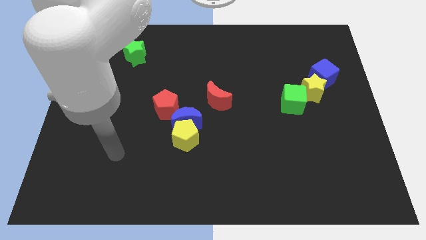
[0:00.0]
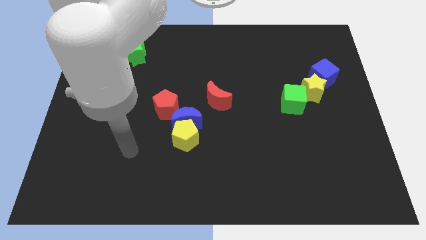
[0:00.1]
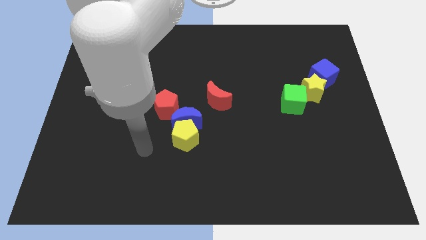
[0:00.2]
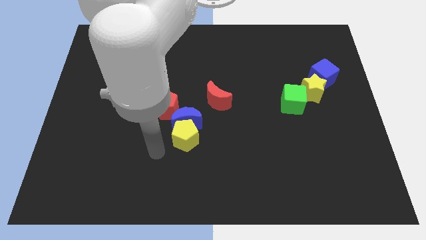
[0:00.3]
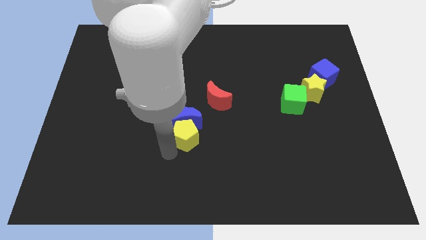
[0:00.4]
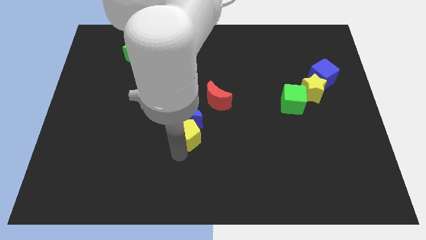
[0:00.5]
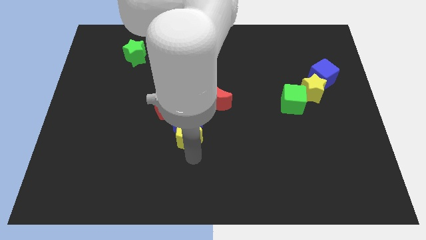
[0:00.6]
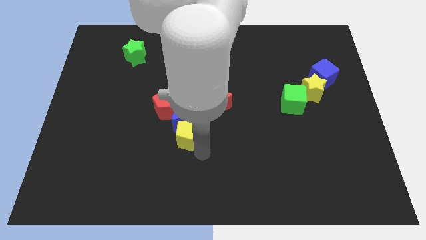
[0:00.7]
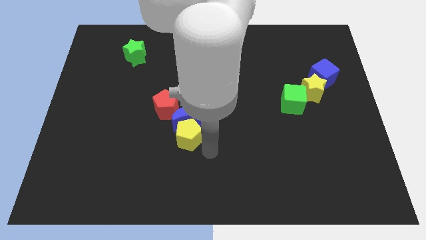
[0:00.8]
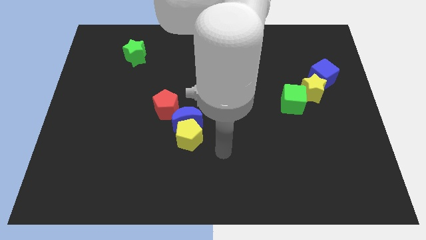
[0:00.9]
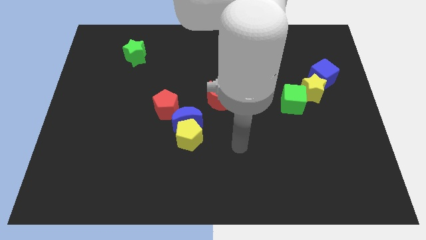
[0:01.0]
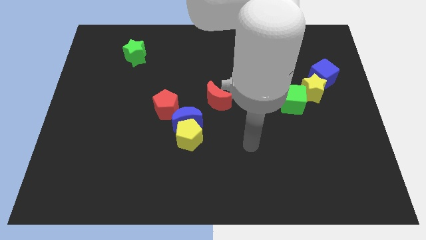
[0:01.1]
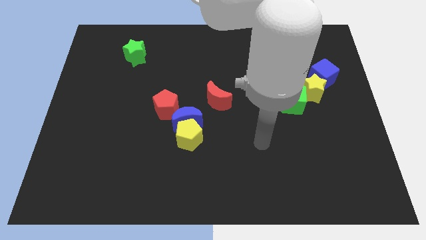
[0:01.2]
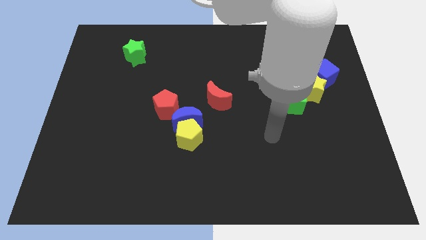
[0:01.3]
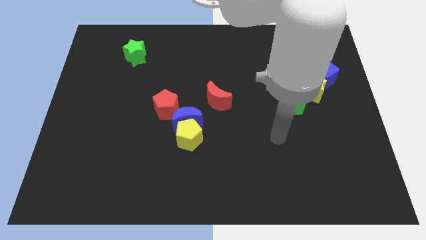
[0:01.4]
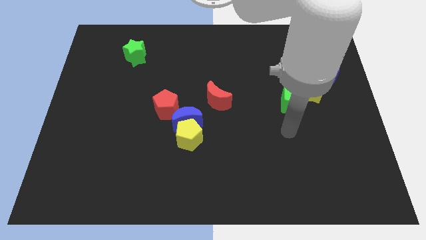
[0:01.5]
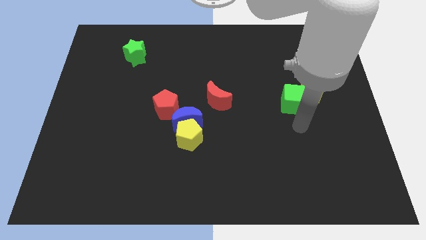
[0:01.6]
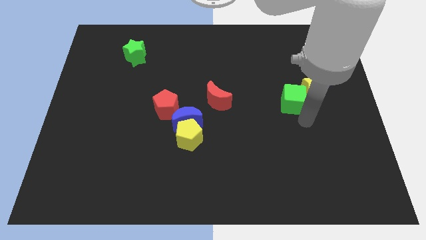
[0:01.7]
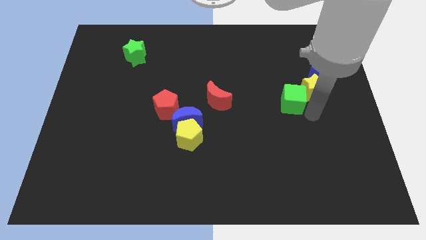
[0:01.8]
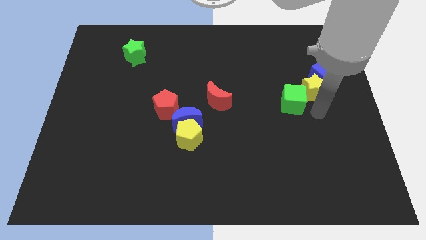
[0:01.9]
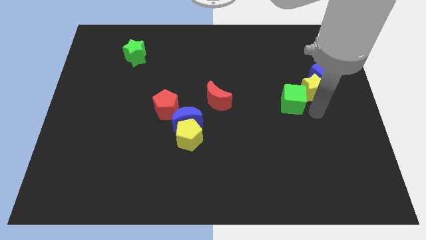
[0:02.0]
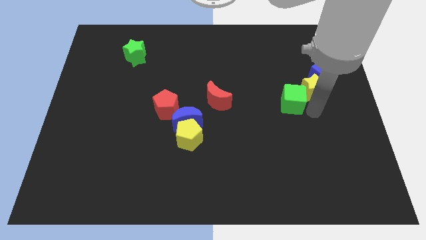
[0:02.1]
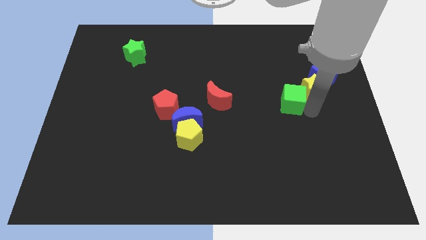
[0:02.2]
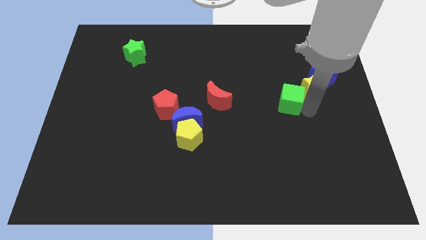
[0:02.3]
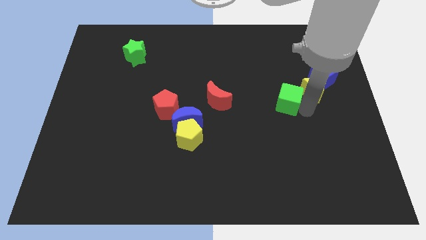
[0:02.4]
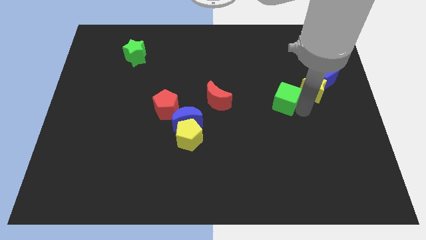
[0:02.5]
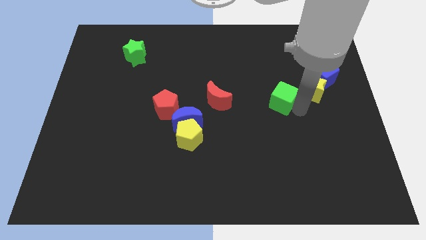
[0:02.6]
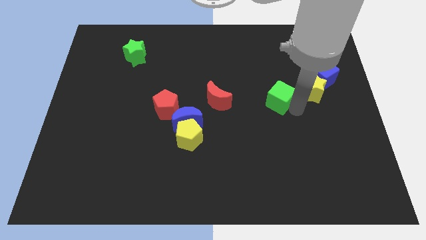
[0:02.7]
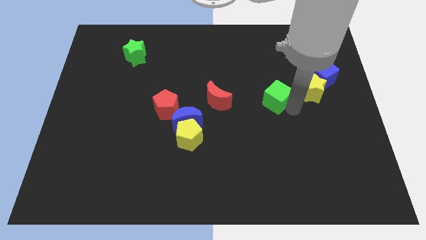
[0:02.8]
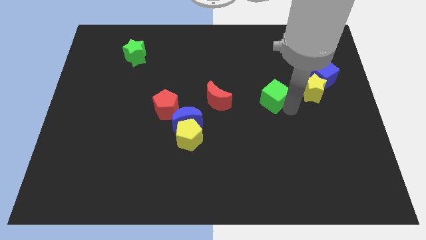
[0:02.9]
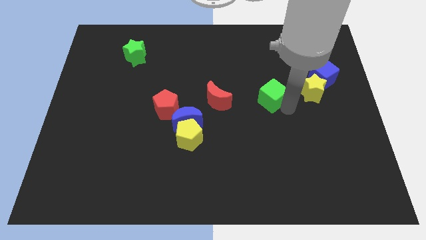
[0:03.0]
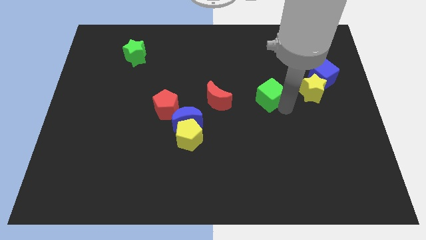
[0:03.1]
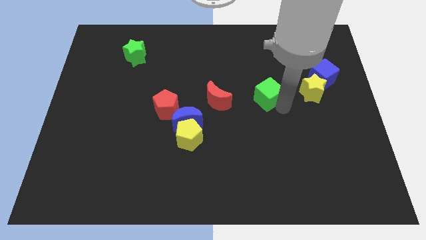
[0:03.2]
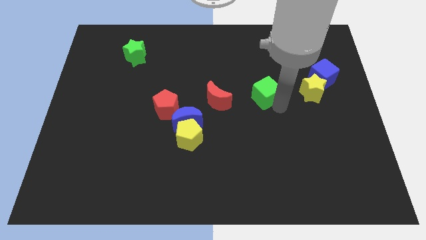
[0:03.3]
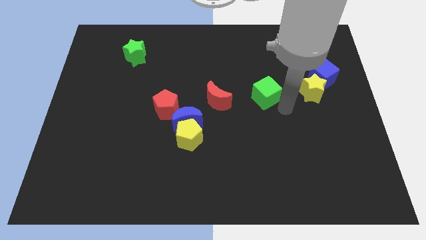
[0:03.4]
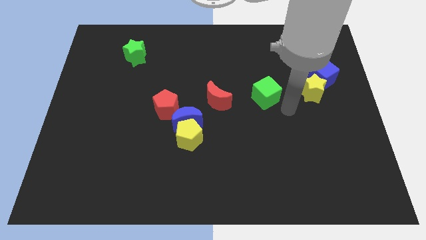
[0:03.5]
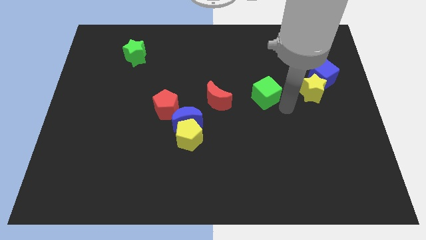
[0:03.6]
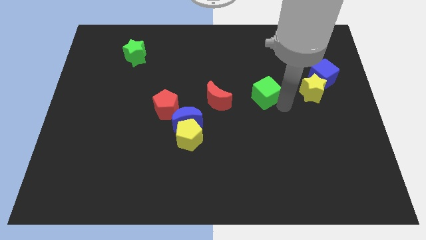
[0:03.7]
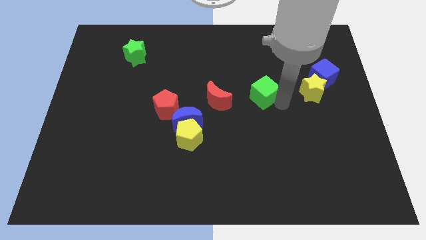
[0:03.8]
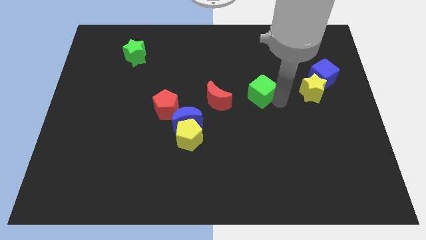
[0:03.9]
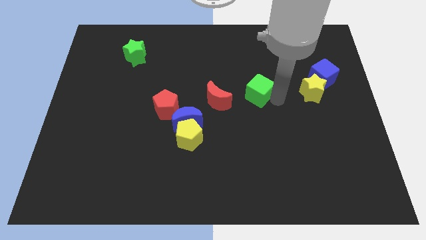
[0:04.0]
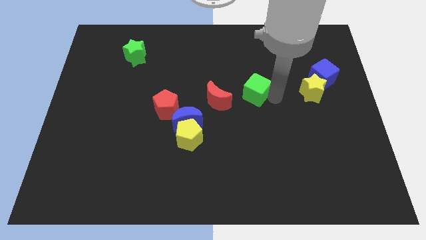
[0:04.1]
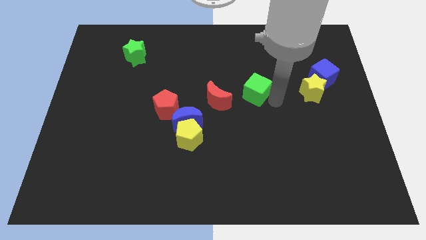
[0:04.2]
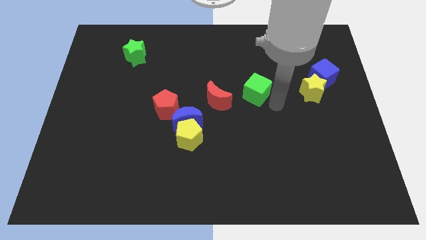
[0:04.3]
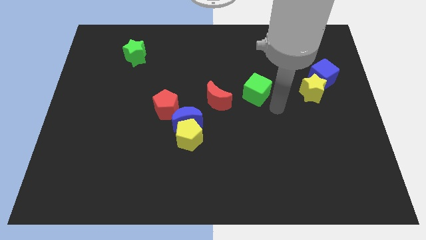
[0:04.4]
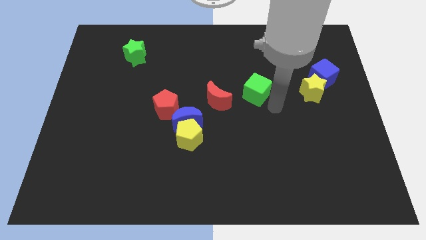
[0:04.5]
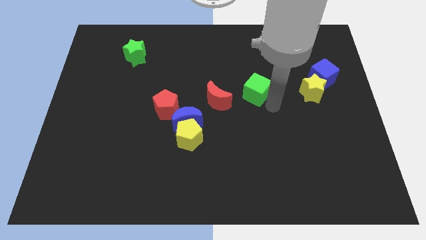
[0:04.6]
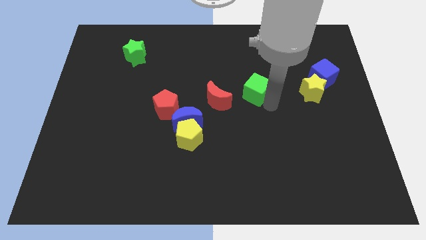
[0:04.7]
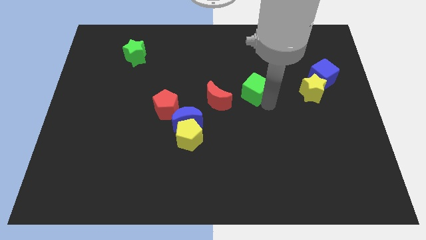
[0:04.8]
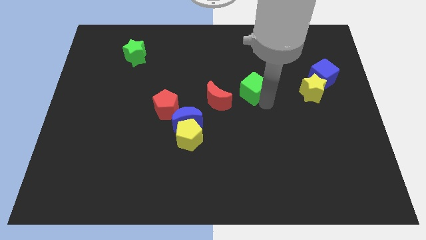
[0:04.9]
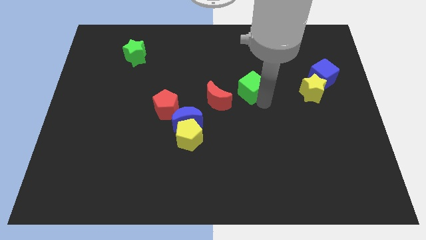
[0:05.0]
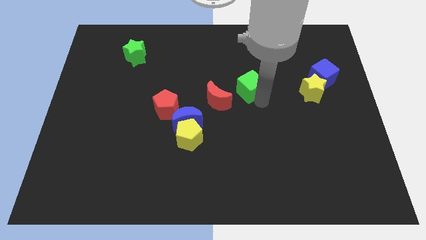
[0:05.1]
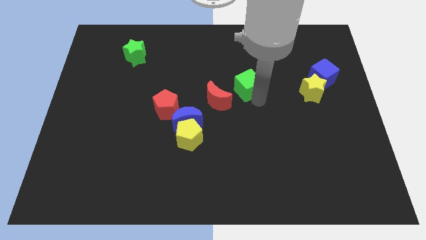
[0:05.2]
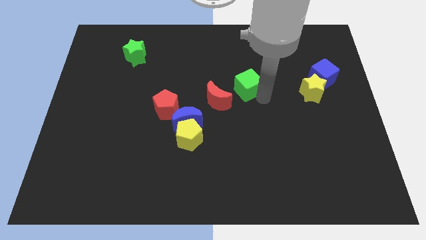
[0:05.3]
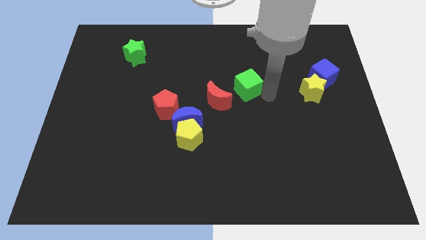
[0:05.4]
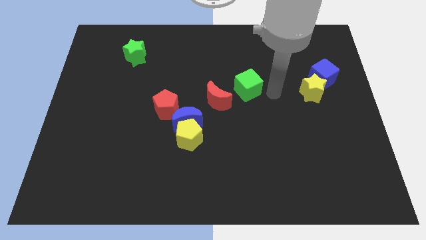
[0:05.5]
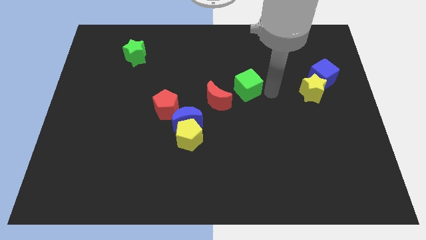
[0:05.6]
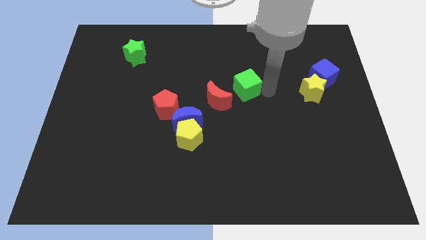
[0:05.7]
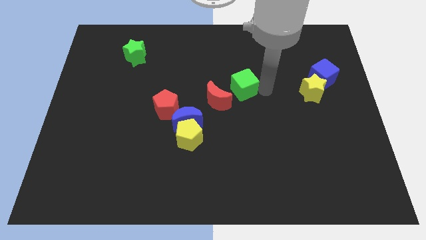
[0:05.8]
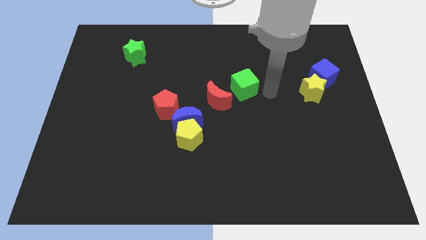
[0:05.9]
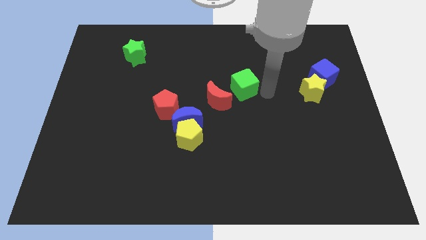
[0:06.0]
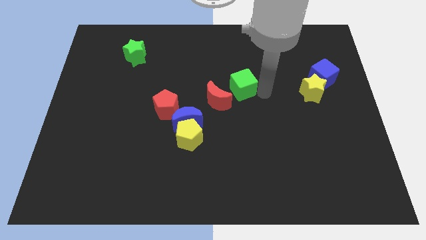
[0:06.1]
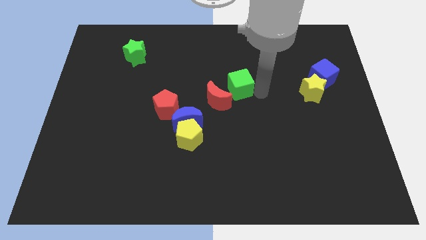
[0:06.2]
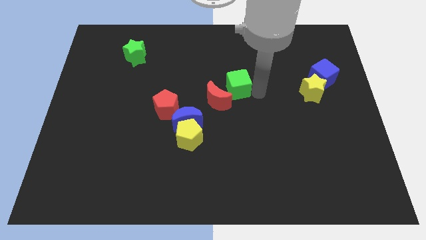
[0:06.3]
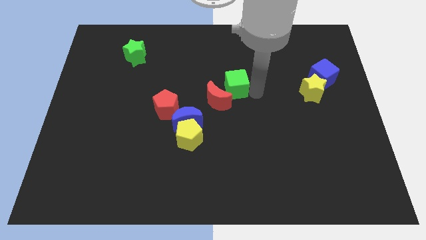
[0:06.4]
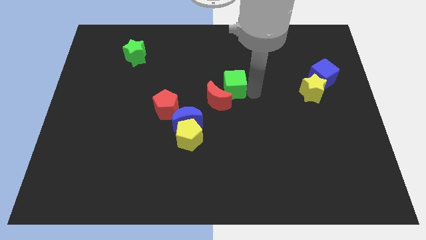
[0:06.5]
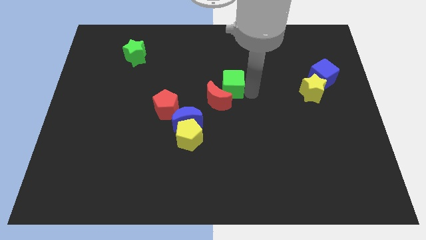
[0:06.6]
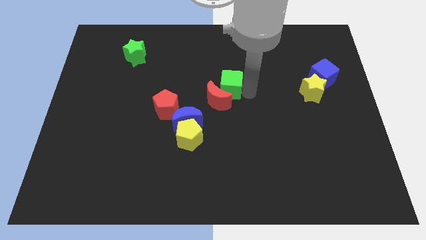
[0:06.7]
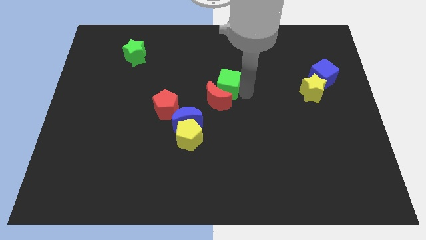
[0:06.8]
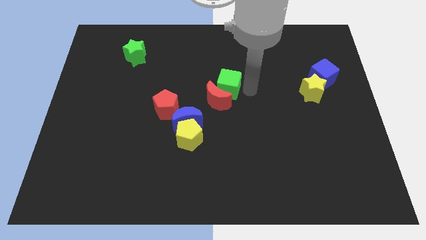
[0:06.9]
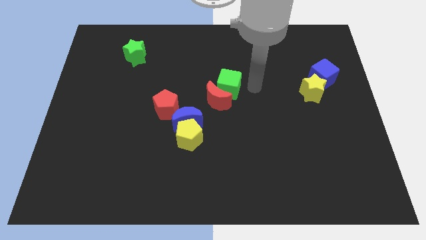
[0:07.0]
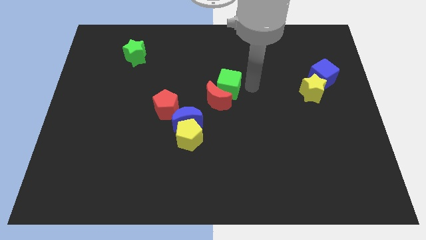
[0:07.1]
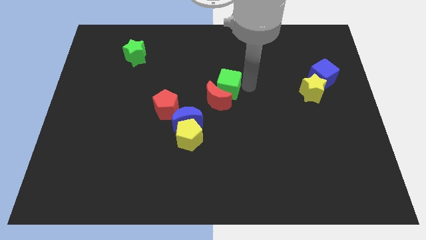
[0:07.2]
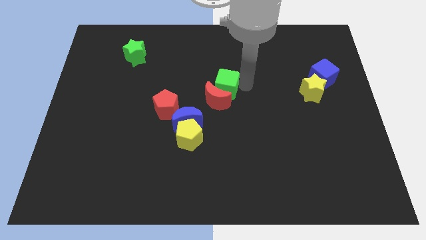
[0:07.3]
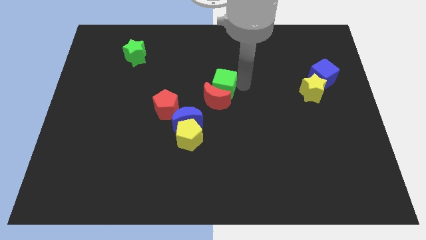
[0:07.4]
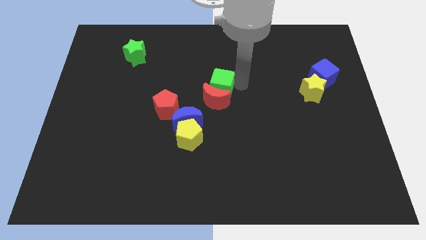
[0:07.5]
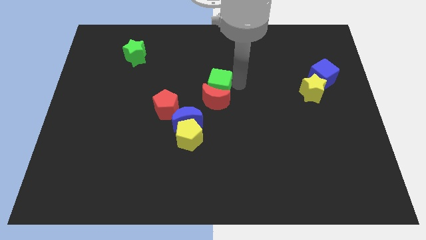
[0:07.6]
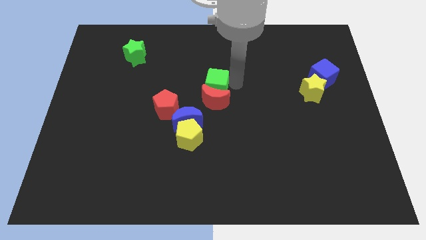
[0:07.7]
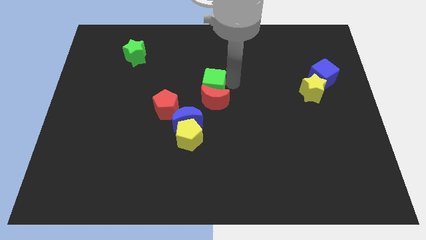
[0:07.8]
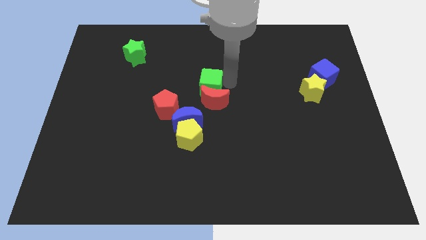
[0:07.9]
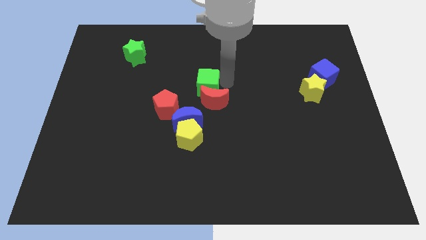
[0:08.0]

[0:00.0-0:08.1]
move the green cube to the top side of the blue moon
